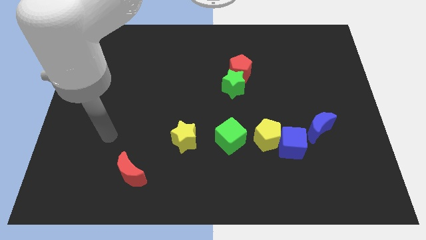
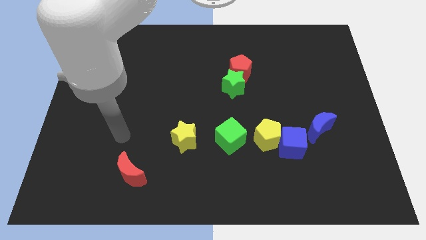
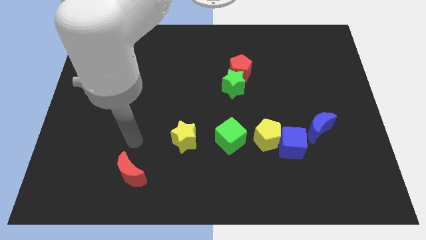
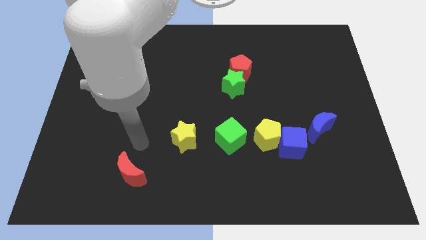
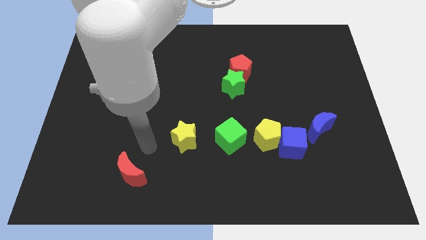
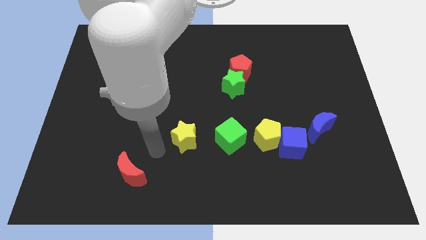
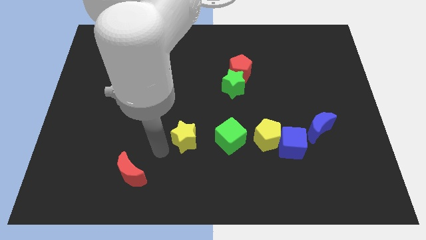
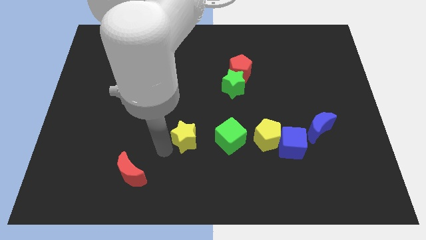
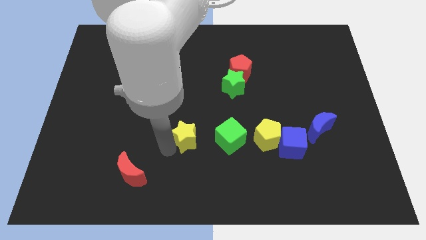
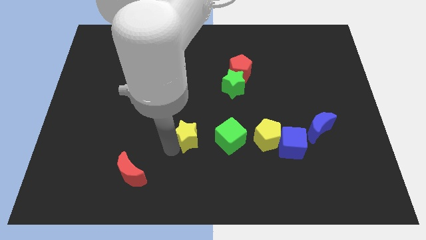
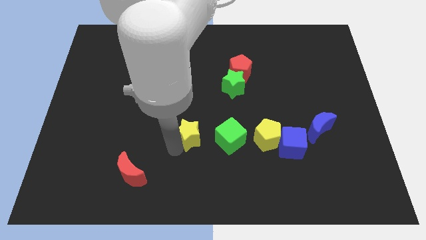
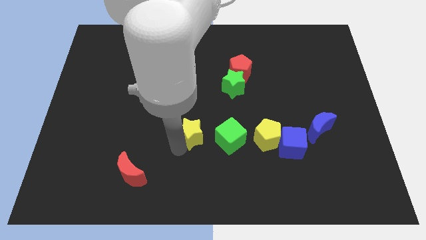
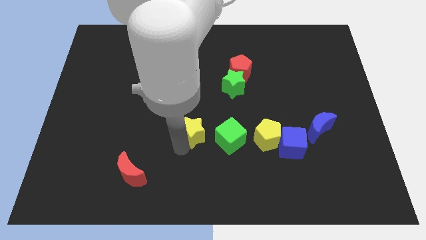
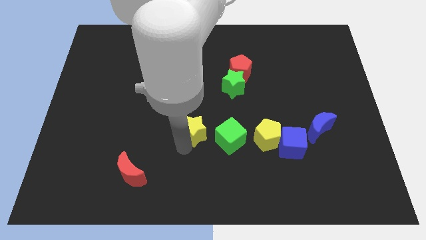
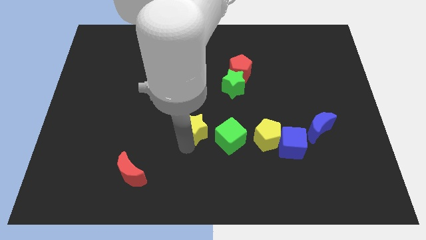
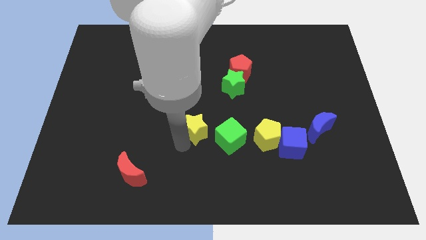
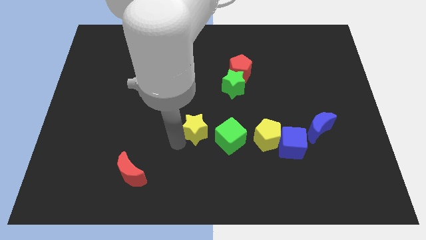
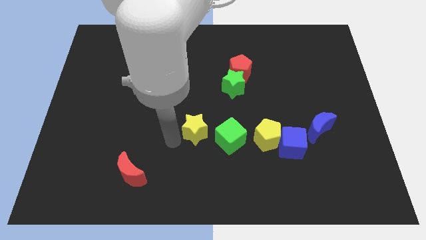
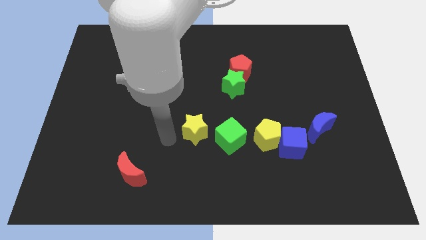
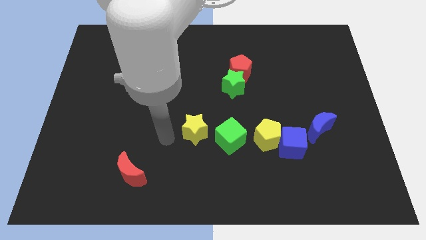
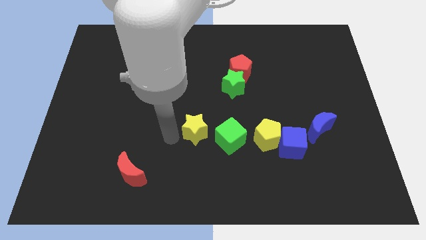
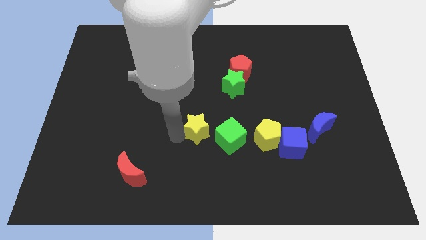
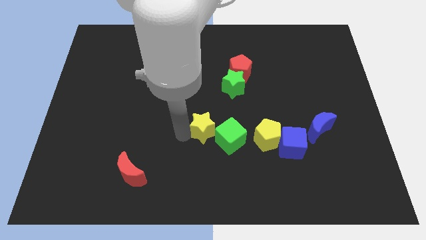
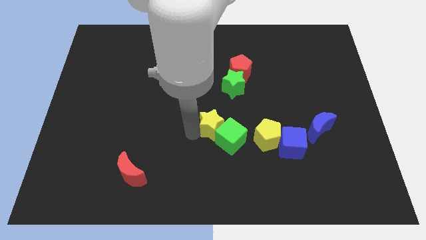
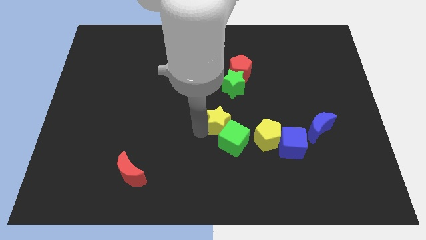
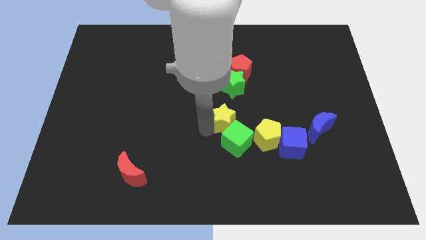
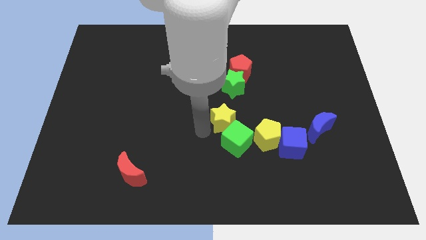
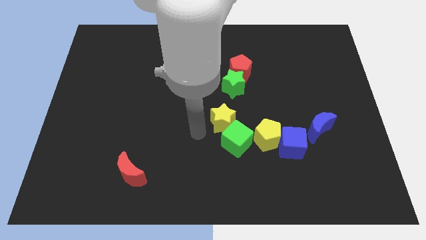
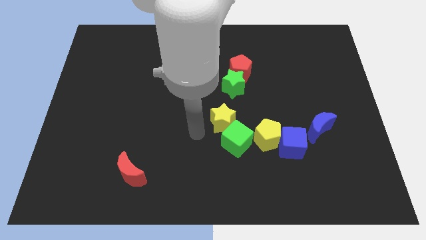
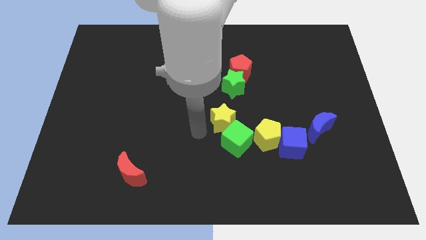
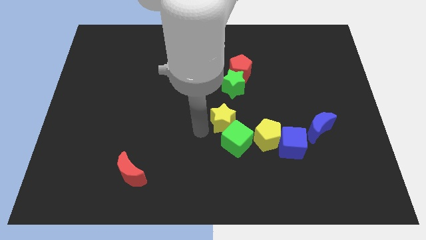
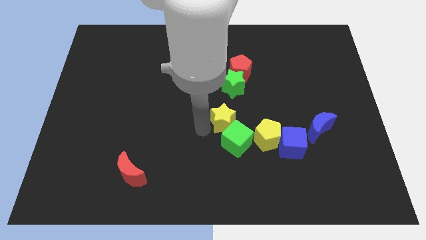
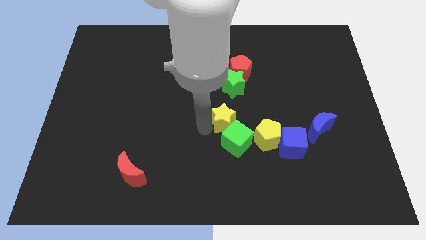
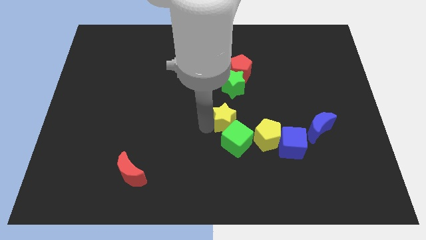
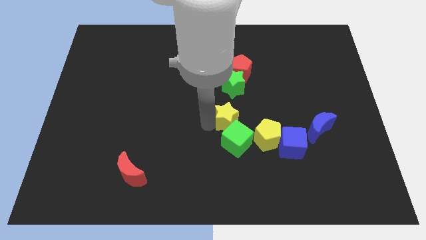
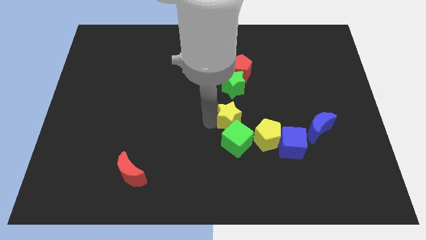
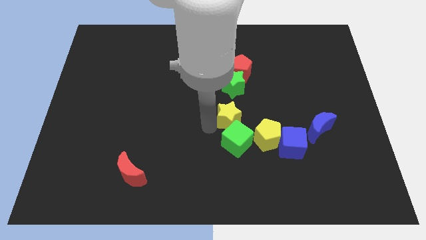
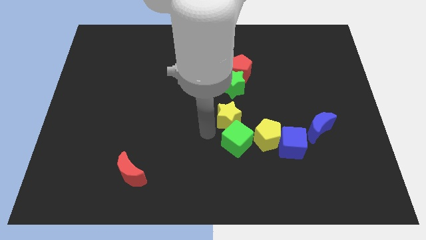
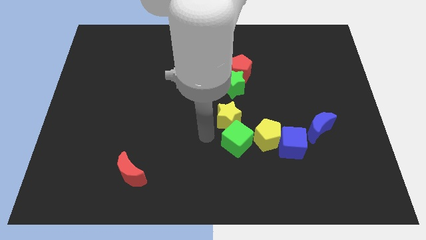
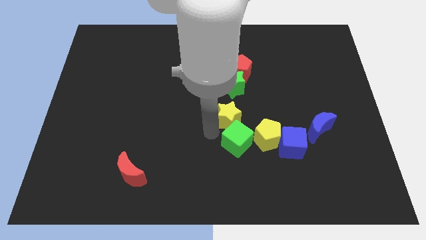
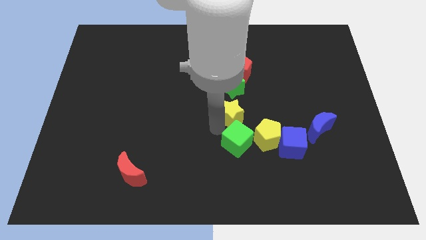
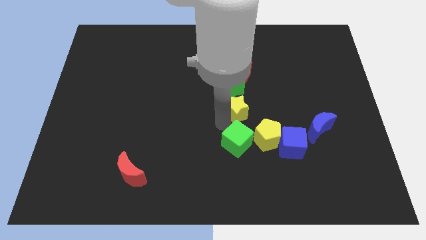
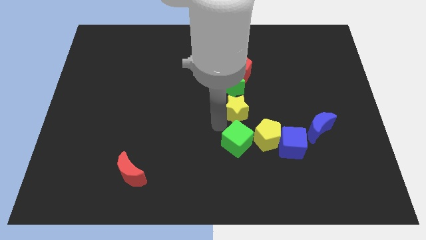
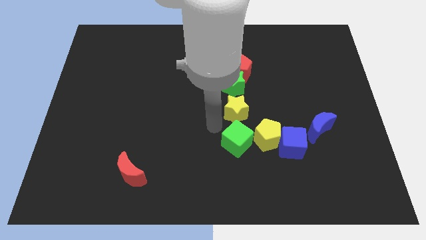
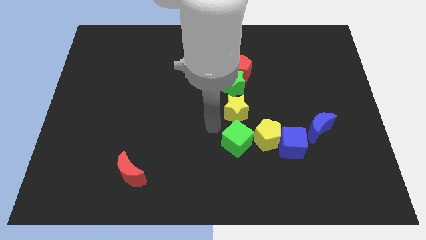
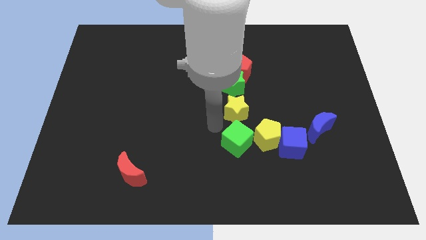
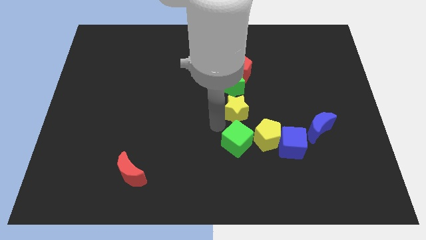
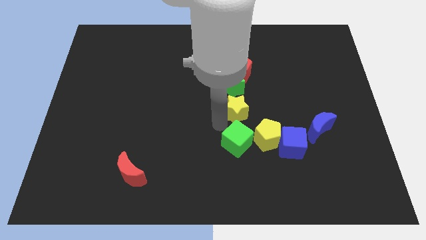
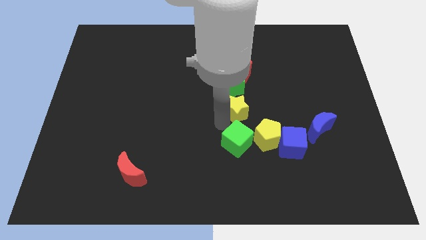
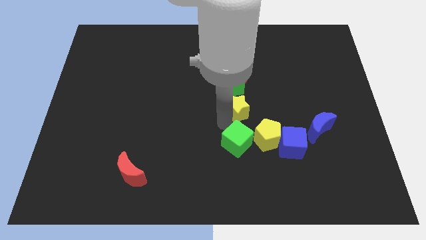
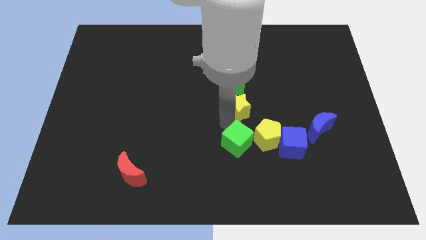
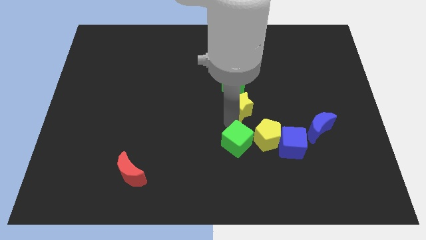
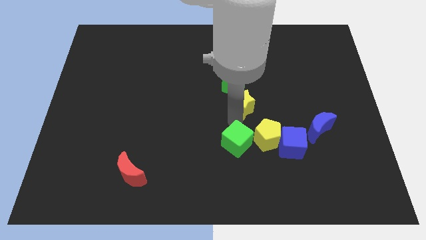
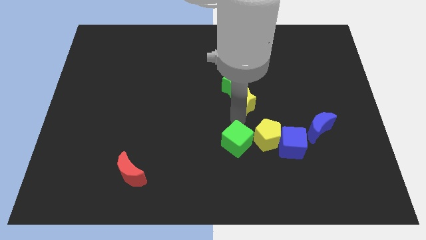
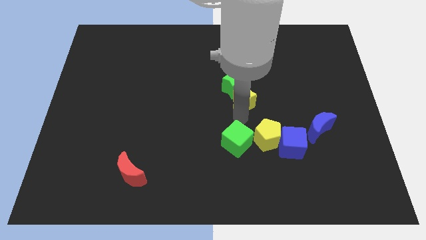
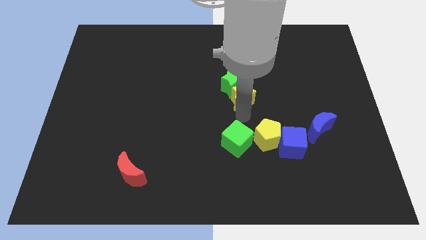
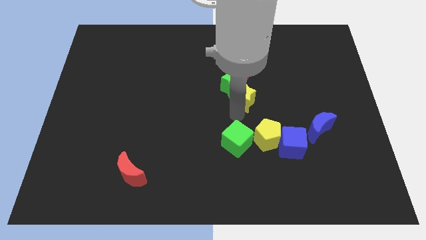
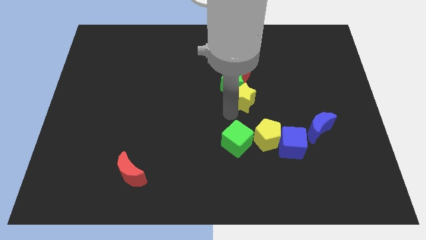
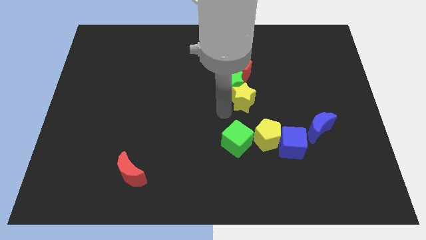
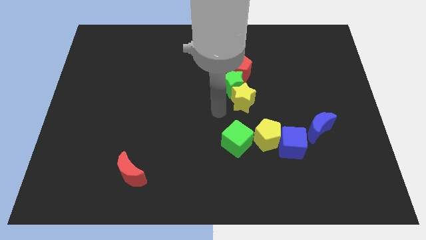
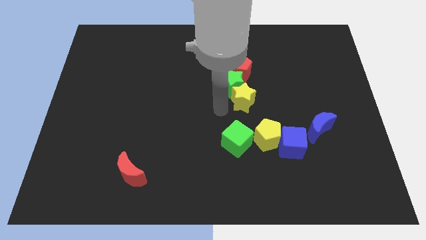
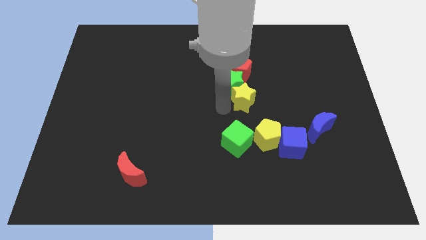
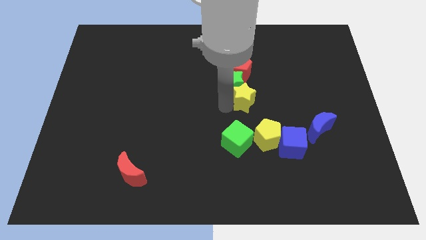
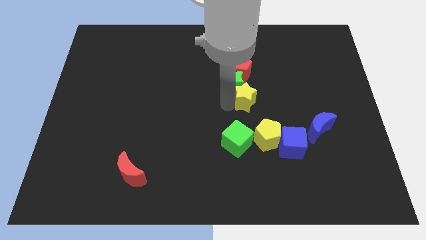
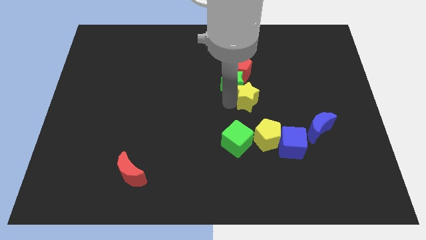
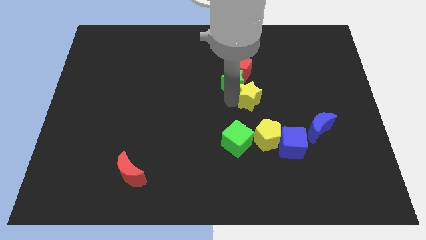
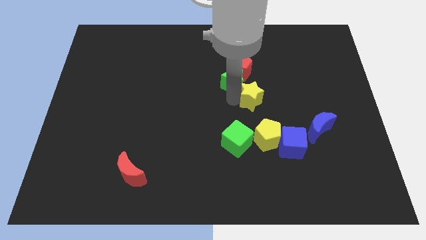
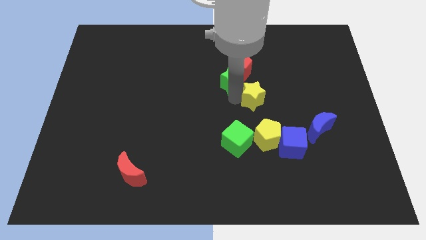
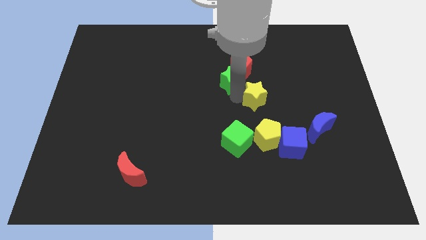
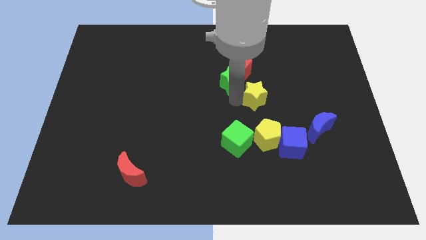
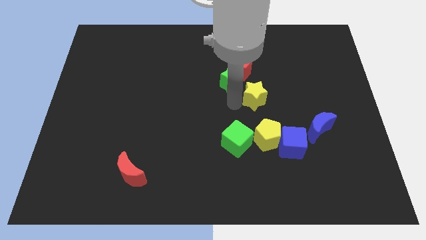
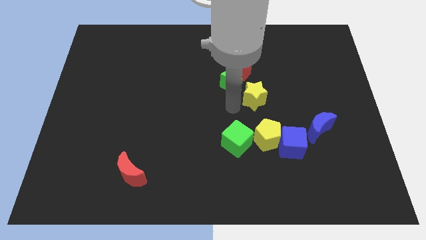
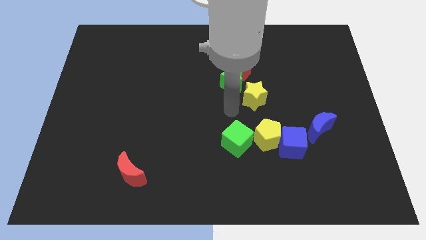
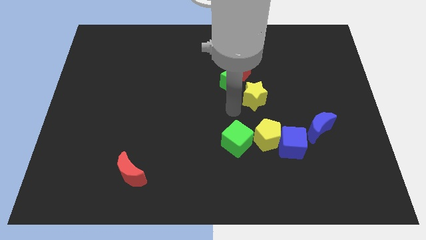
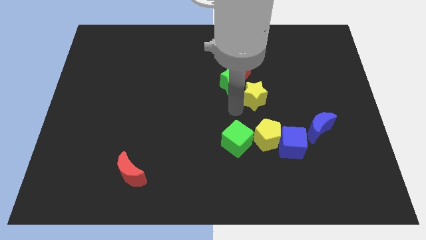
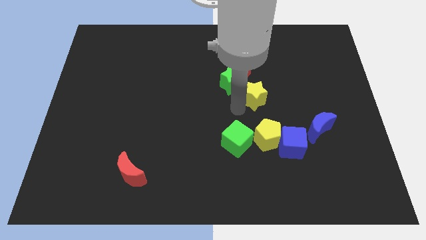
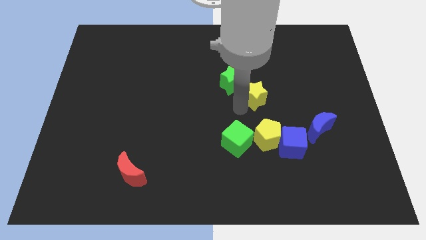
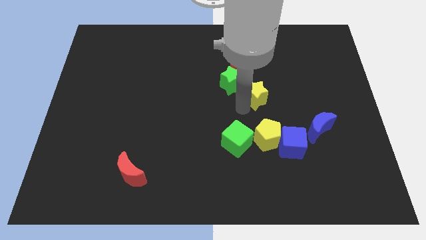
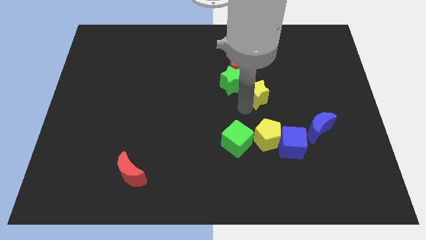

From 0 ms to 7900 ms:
slide the yellow star upwards and then right

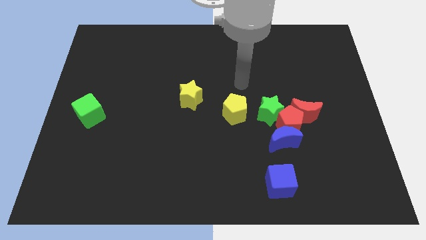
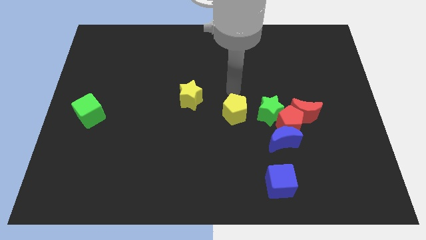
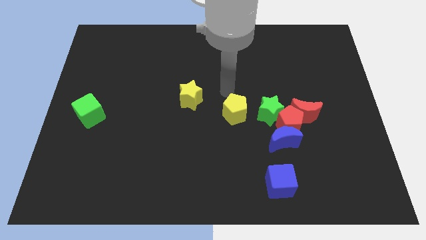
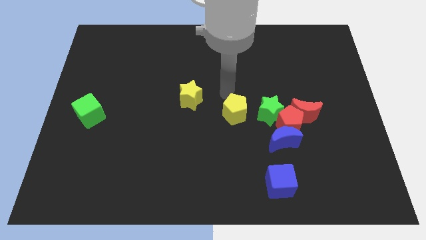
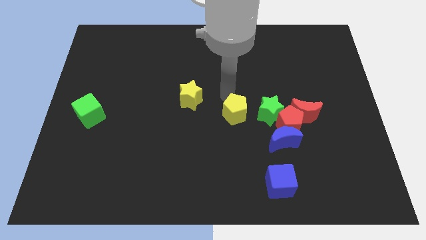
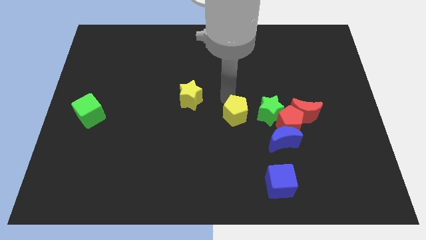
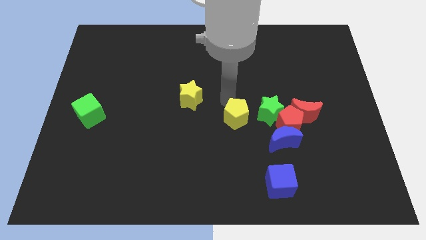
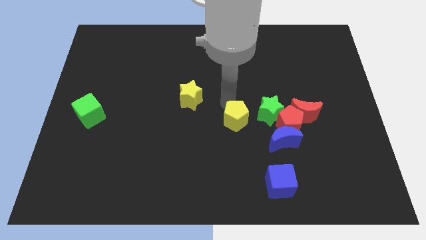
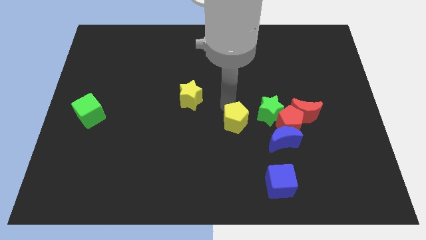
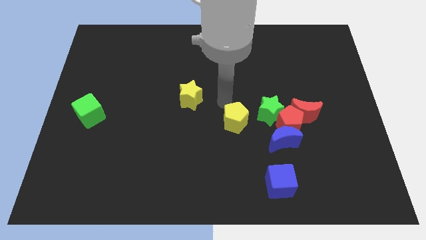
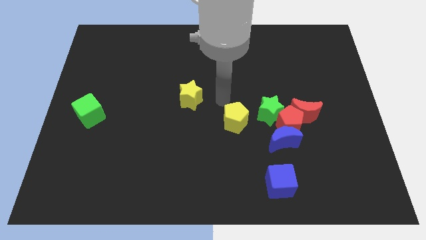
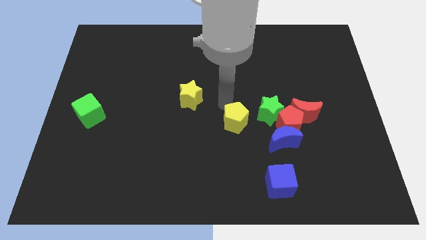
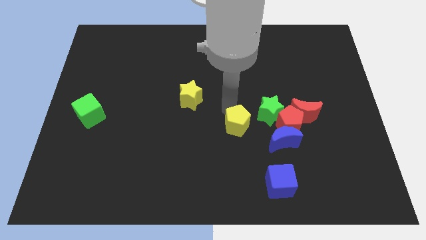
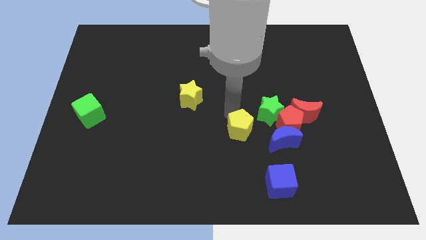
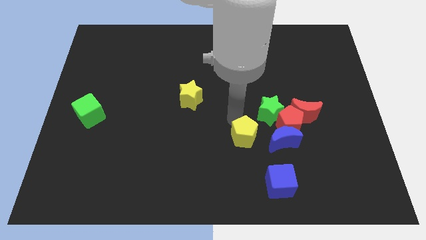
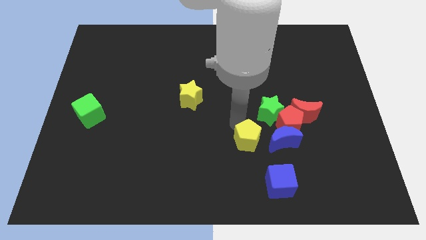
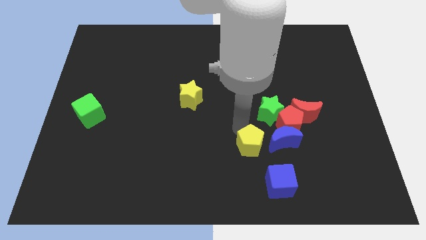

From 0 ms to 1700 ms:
move the yellow pentagon somewhat diagonally down and right
